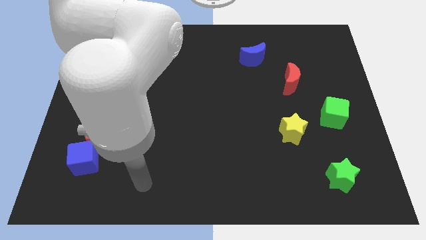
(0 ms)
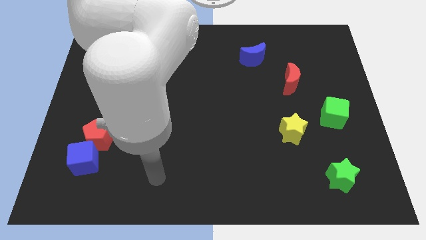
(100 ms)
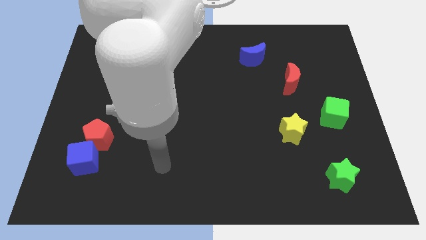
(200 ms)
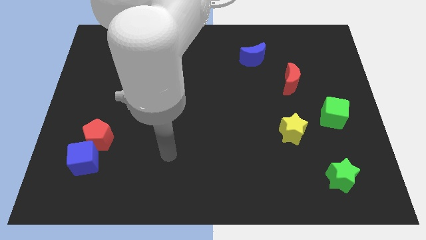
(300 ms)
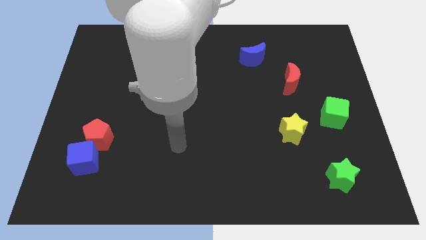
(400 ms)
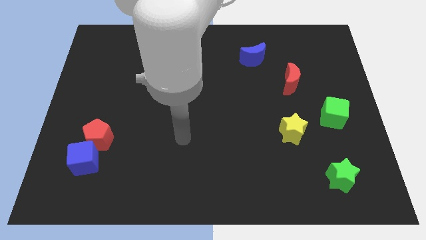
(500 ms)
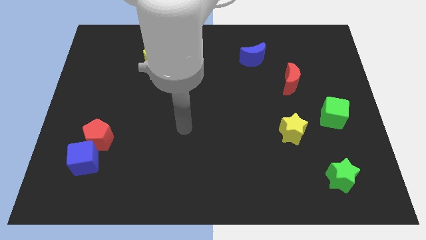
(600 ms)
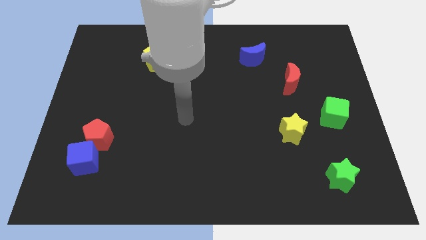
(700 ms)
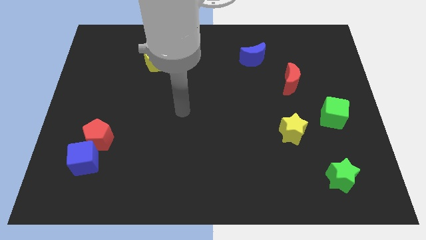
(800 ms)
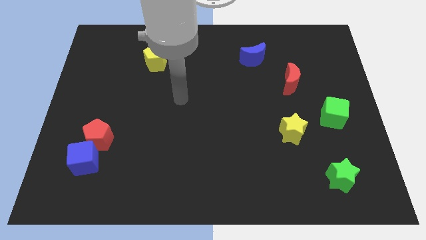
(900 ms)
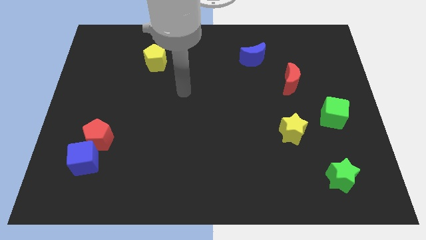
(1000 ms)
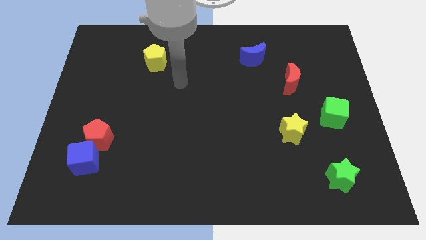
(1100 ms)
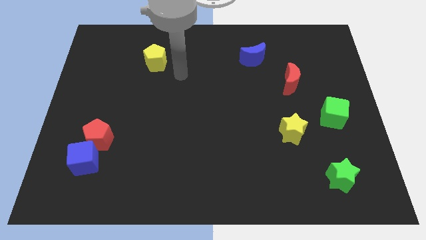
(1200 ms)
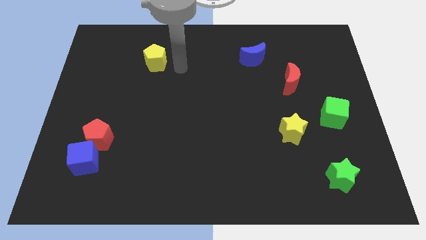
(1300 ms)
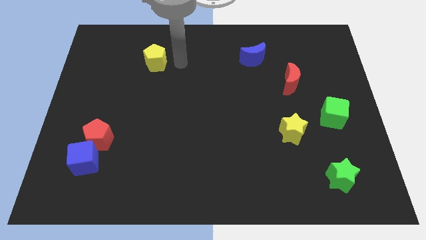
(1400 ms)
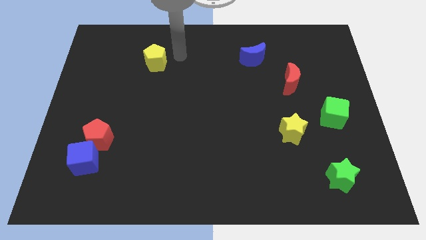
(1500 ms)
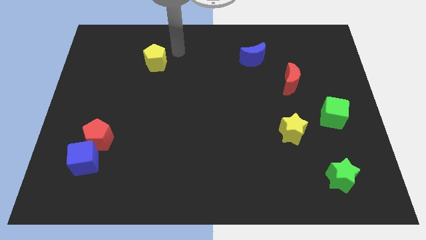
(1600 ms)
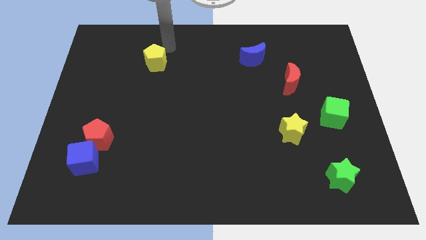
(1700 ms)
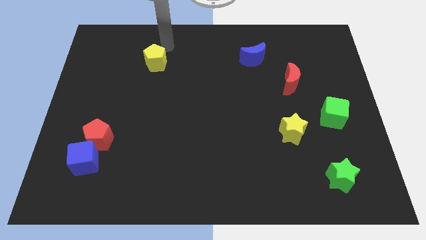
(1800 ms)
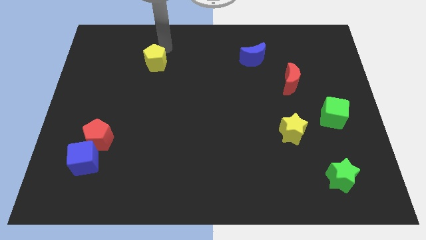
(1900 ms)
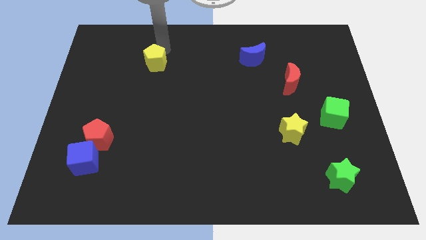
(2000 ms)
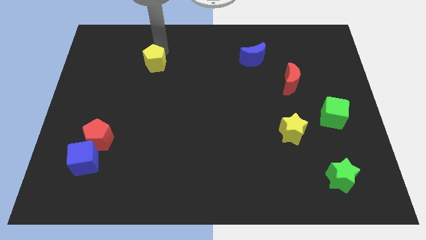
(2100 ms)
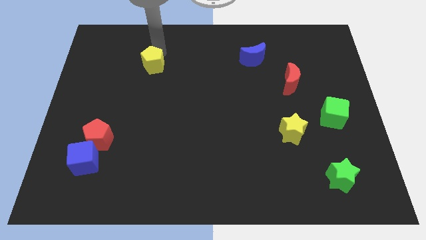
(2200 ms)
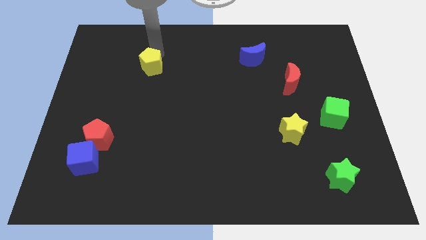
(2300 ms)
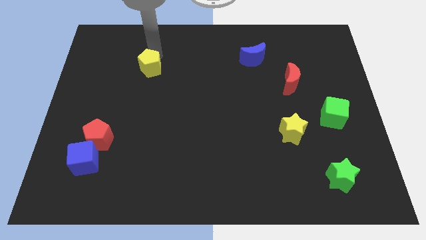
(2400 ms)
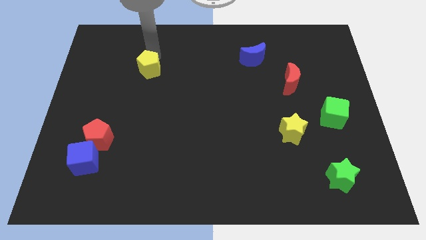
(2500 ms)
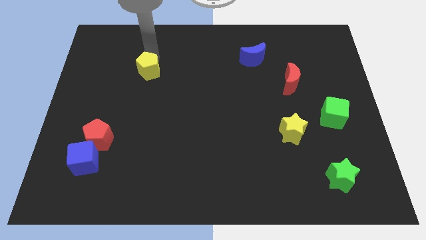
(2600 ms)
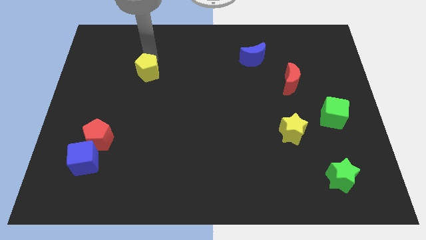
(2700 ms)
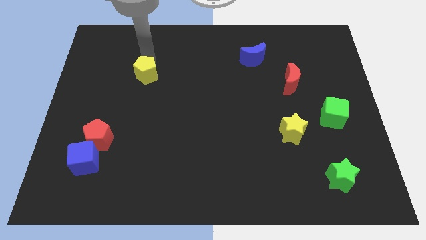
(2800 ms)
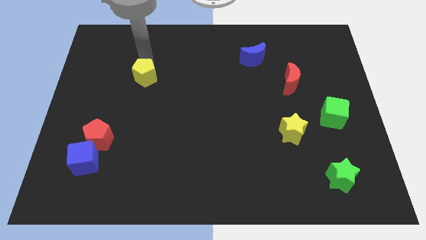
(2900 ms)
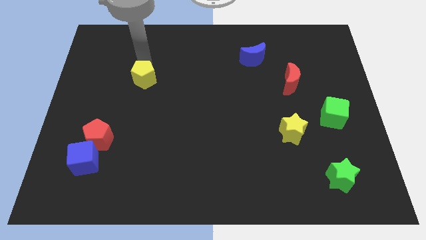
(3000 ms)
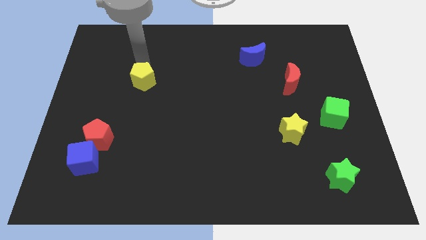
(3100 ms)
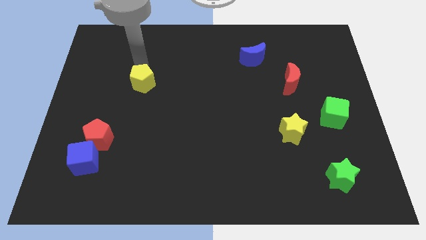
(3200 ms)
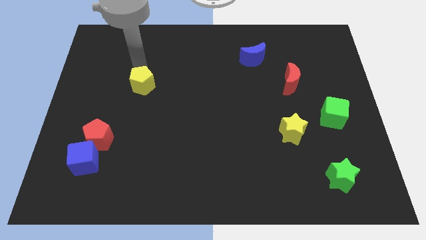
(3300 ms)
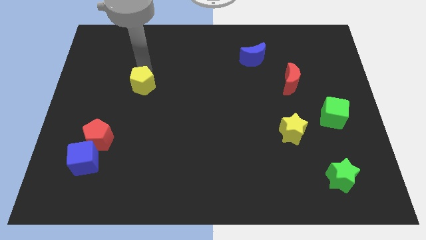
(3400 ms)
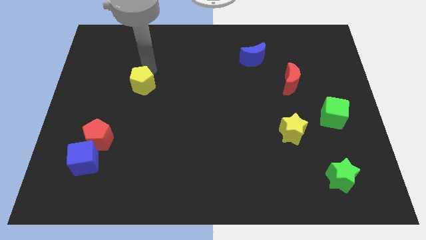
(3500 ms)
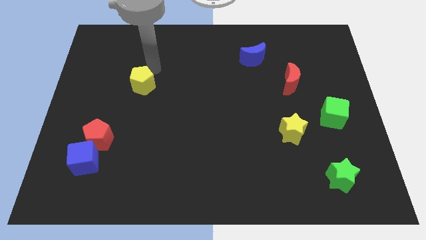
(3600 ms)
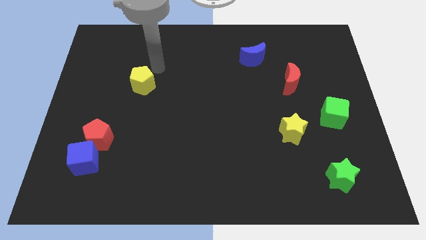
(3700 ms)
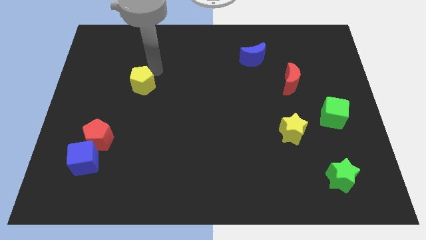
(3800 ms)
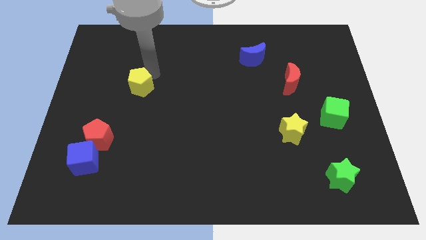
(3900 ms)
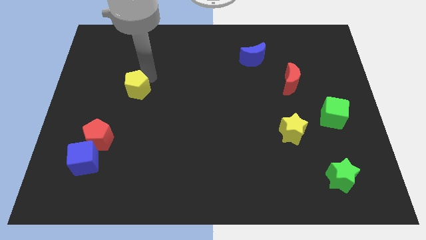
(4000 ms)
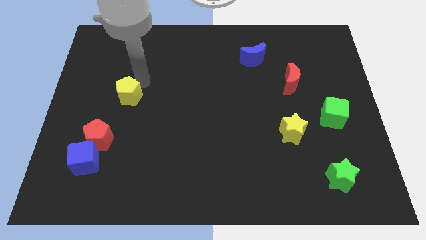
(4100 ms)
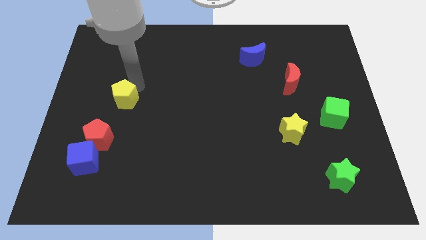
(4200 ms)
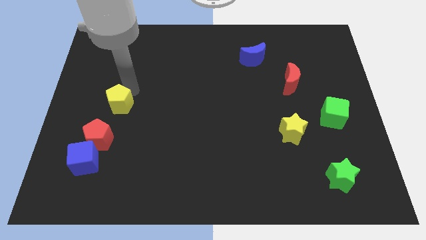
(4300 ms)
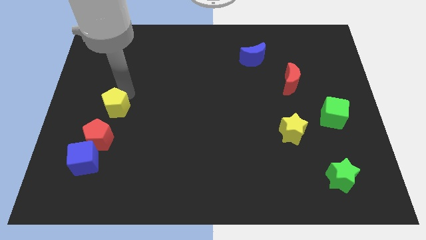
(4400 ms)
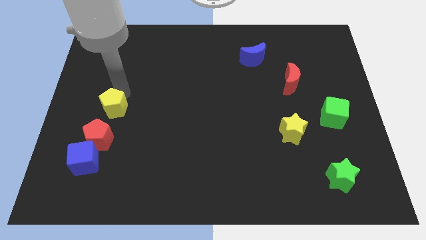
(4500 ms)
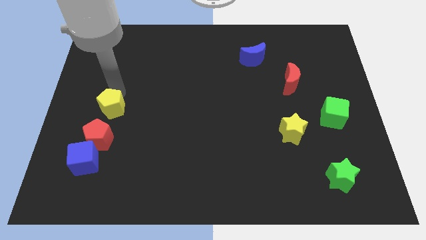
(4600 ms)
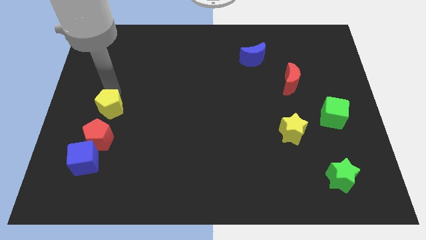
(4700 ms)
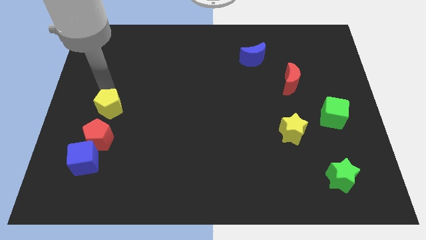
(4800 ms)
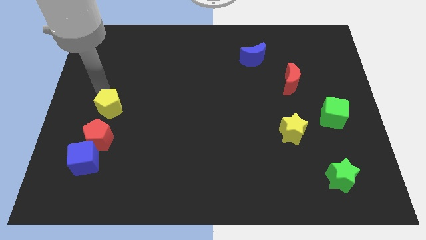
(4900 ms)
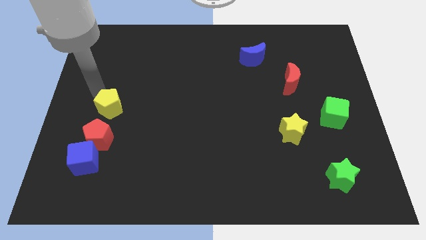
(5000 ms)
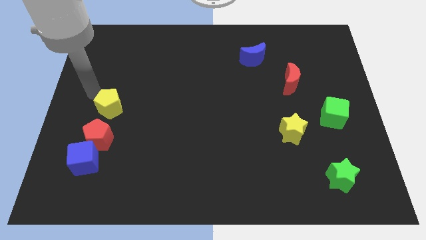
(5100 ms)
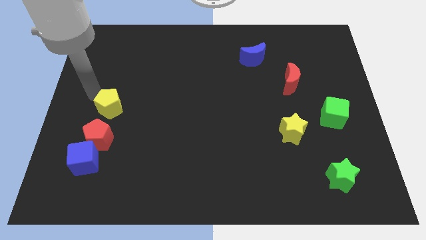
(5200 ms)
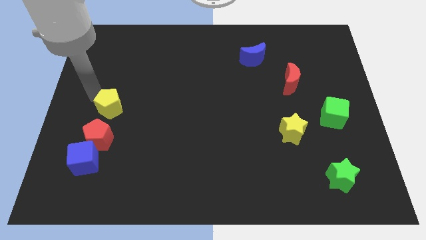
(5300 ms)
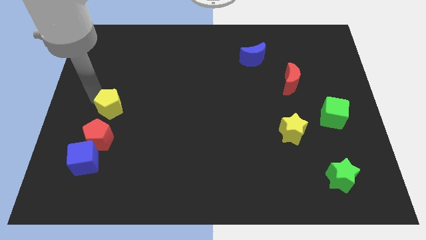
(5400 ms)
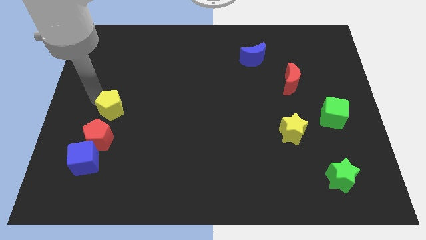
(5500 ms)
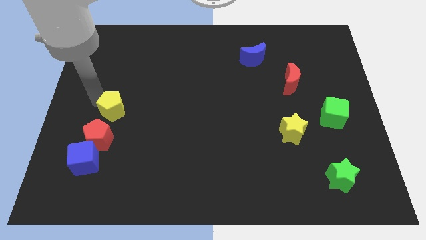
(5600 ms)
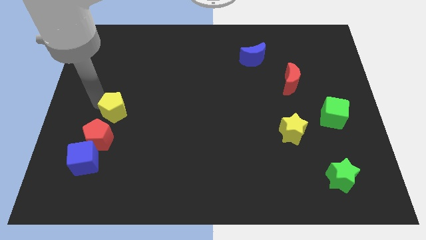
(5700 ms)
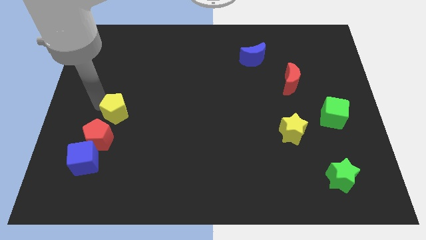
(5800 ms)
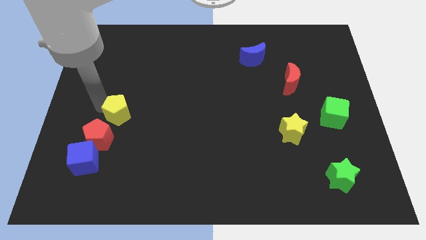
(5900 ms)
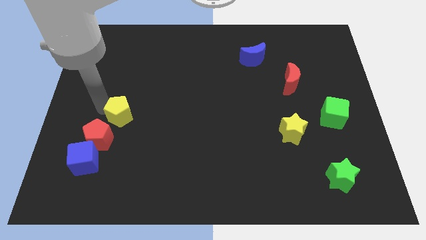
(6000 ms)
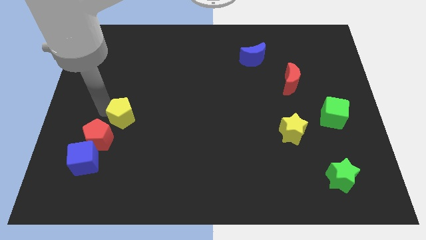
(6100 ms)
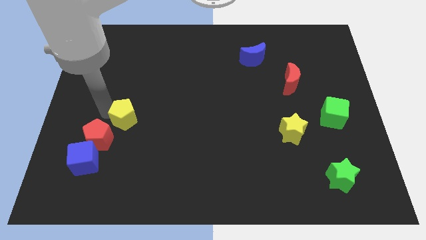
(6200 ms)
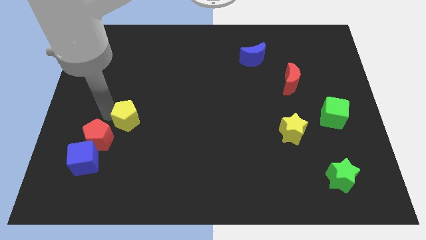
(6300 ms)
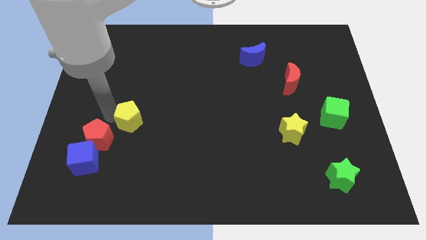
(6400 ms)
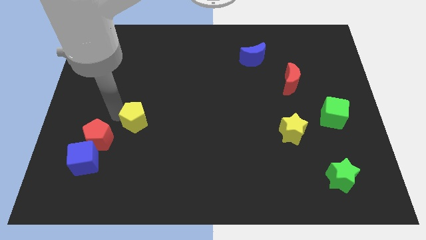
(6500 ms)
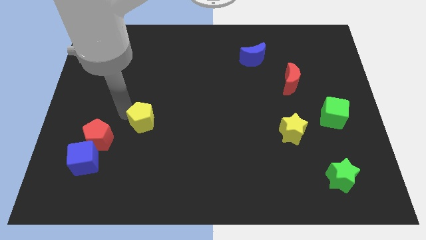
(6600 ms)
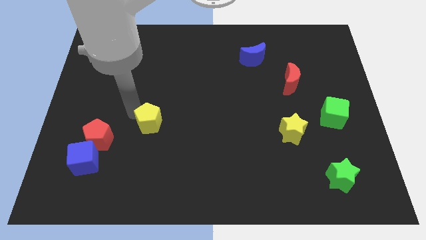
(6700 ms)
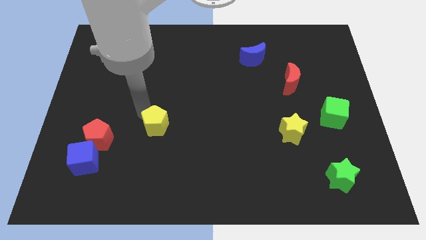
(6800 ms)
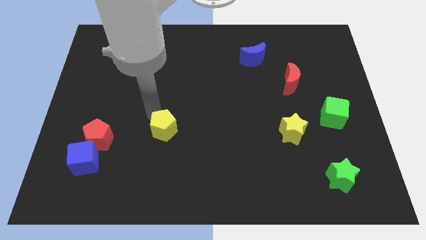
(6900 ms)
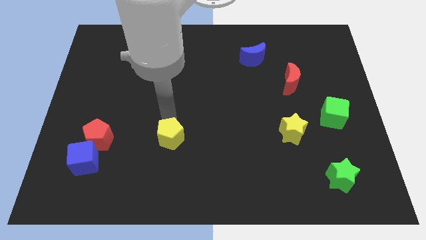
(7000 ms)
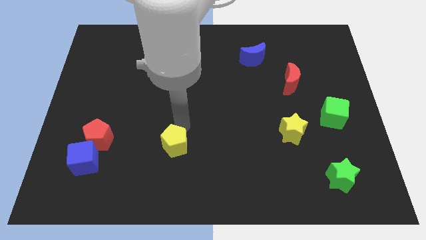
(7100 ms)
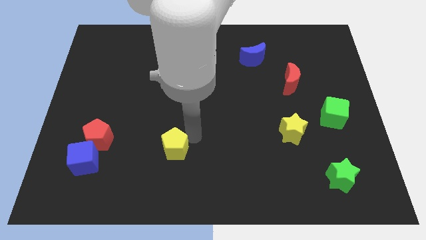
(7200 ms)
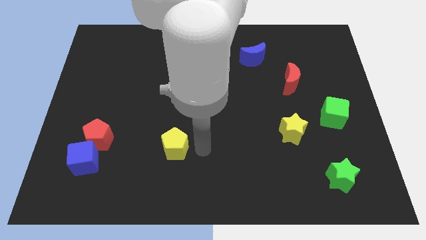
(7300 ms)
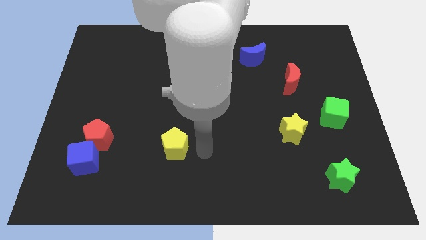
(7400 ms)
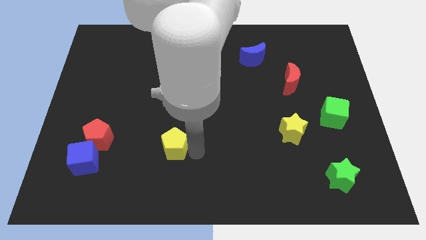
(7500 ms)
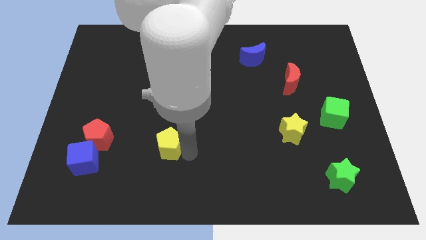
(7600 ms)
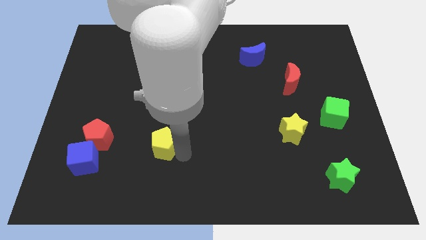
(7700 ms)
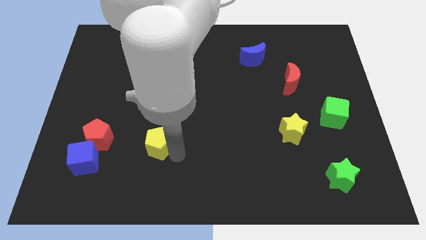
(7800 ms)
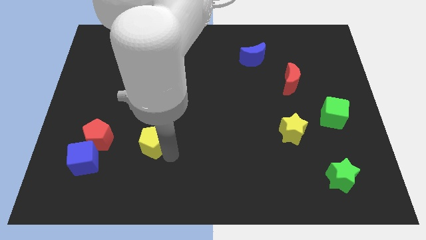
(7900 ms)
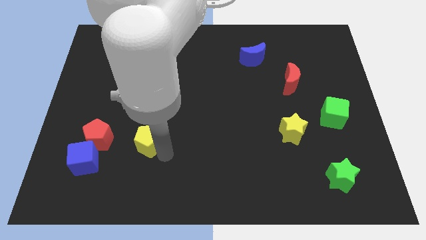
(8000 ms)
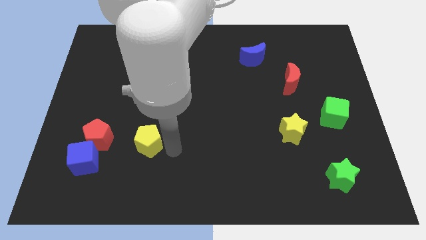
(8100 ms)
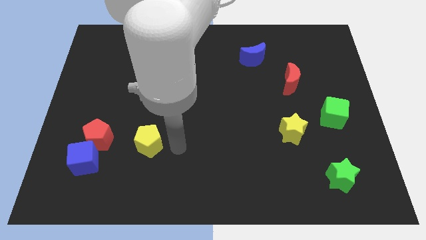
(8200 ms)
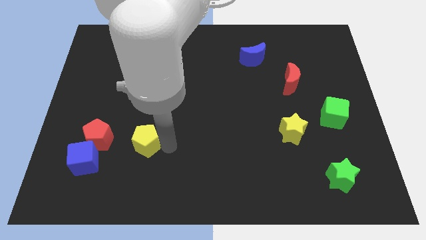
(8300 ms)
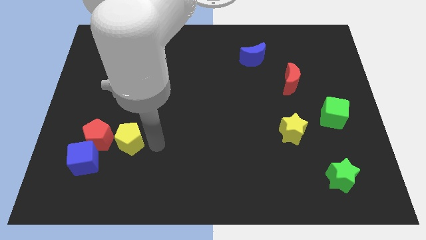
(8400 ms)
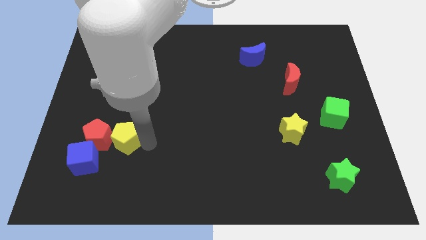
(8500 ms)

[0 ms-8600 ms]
put the yellow pentagon to the red pentagon
